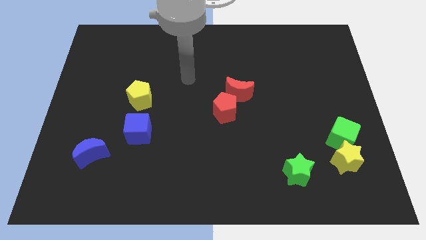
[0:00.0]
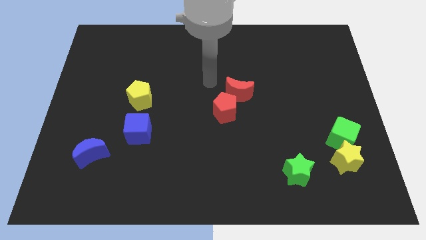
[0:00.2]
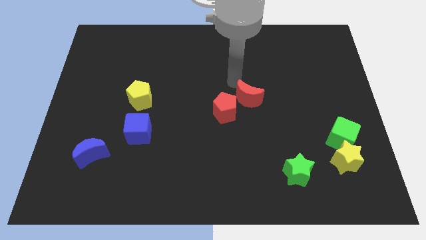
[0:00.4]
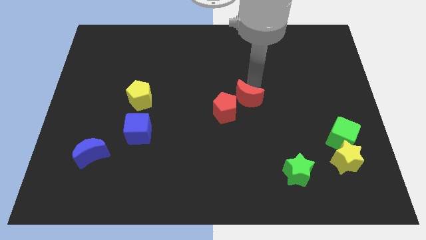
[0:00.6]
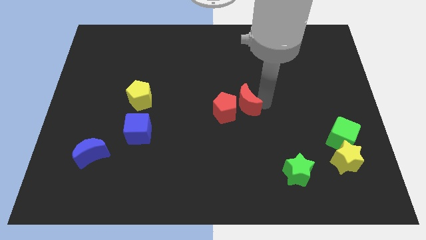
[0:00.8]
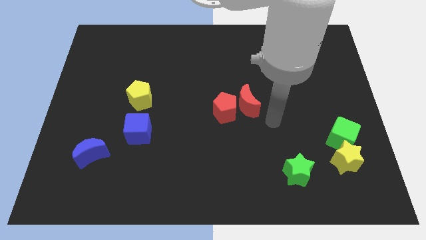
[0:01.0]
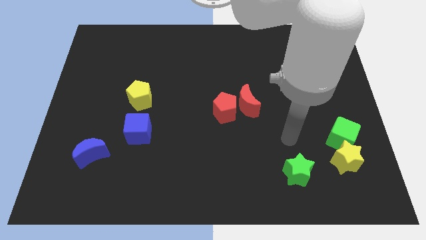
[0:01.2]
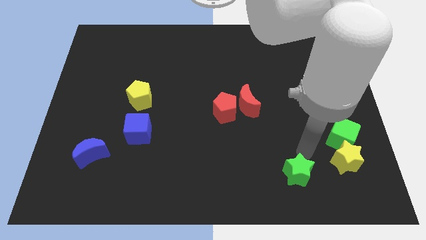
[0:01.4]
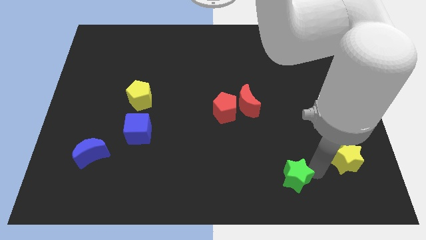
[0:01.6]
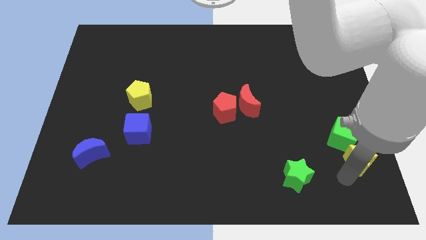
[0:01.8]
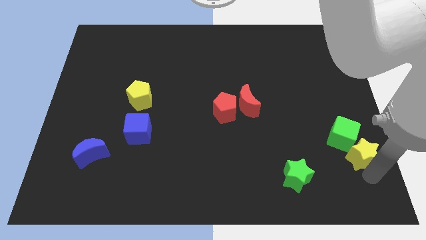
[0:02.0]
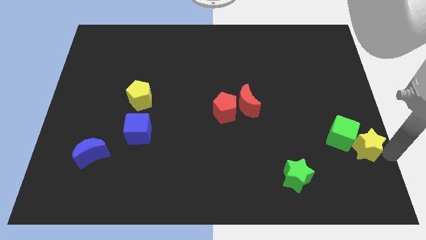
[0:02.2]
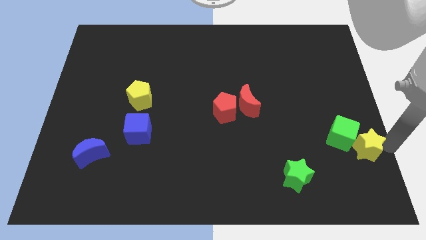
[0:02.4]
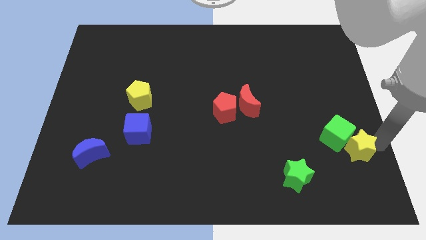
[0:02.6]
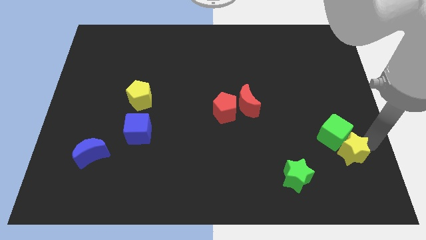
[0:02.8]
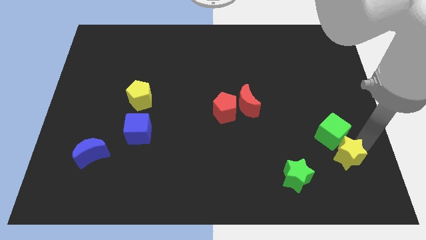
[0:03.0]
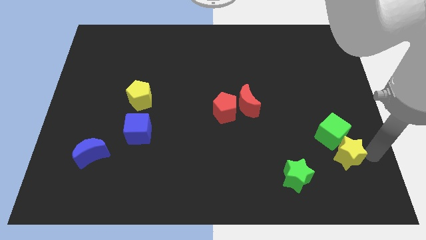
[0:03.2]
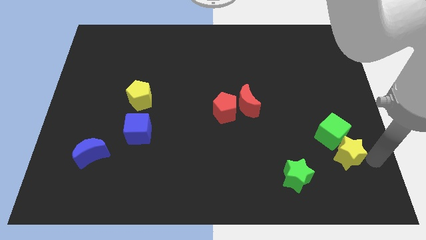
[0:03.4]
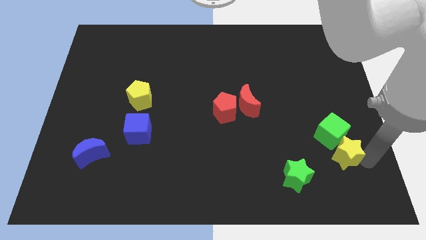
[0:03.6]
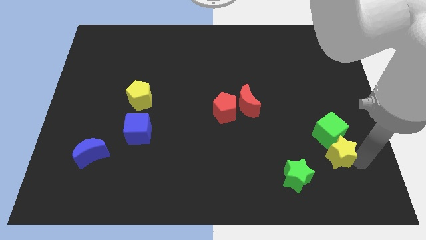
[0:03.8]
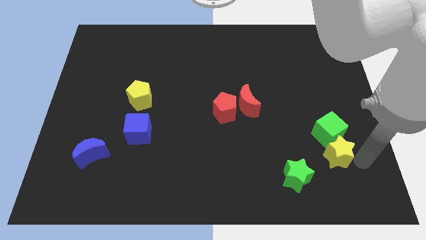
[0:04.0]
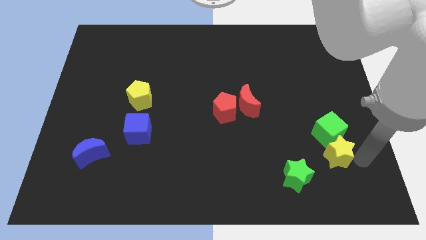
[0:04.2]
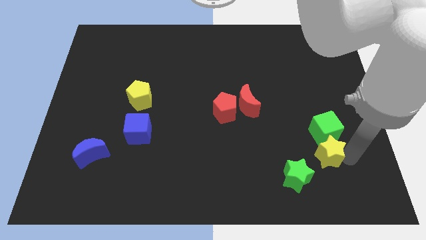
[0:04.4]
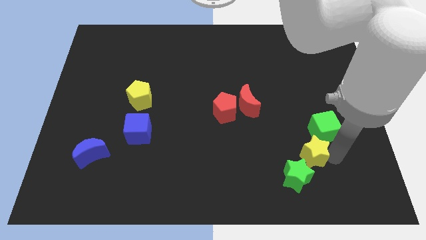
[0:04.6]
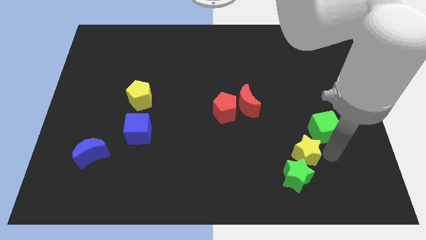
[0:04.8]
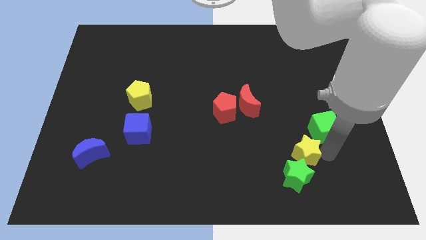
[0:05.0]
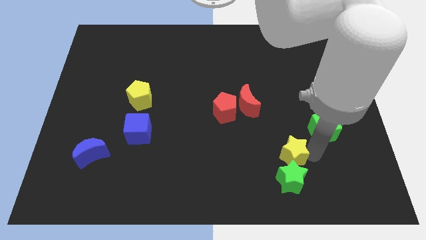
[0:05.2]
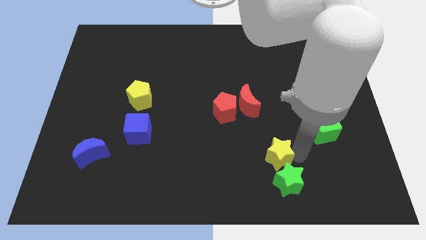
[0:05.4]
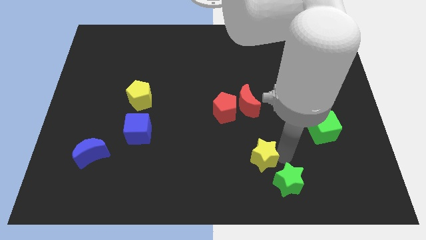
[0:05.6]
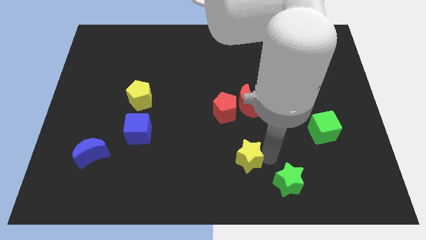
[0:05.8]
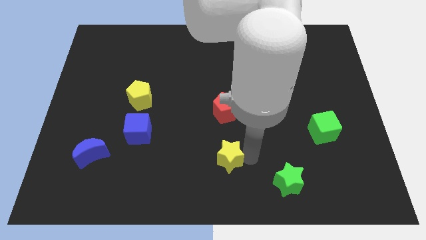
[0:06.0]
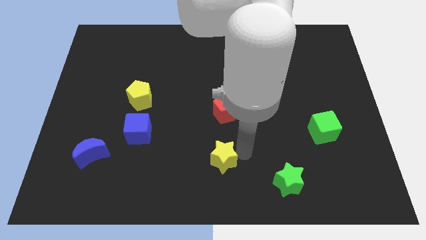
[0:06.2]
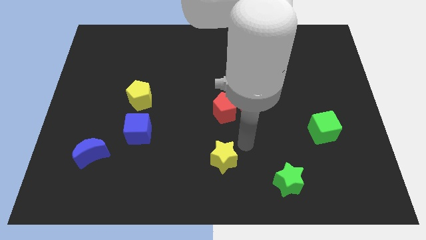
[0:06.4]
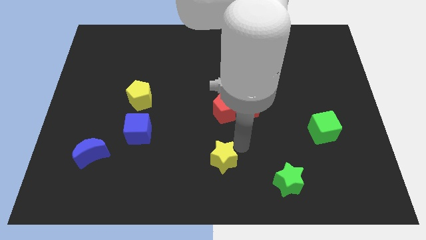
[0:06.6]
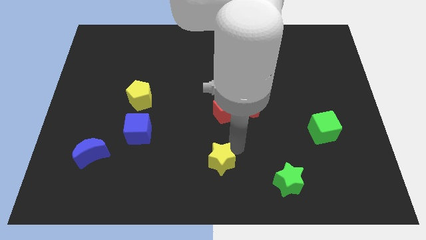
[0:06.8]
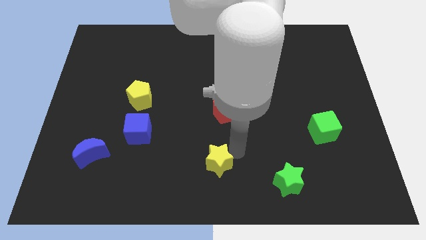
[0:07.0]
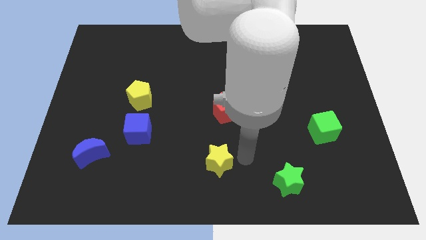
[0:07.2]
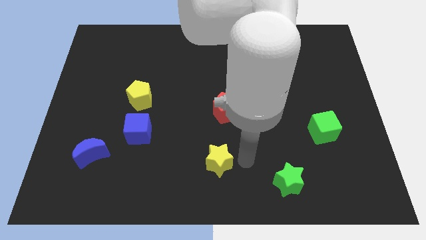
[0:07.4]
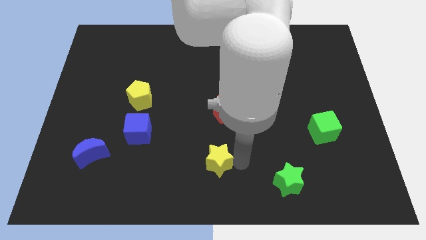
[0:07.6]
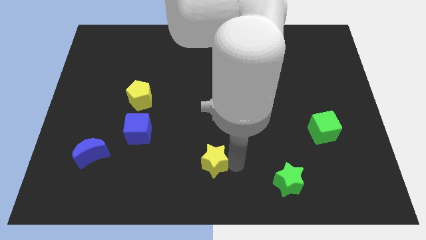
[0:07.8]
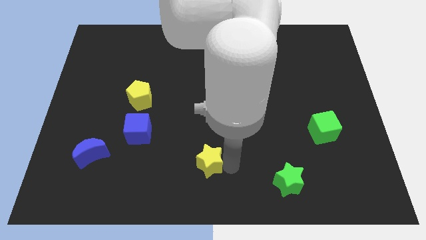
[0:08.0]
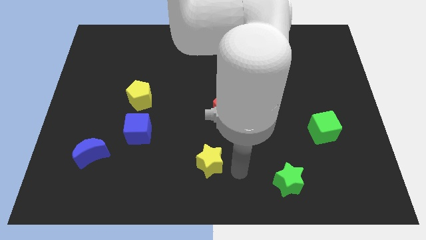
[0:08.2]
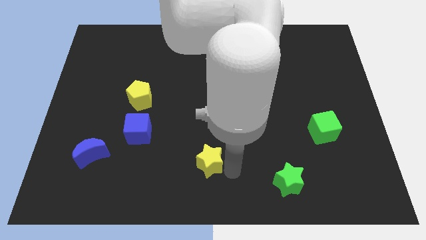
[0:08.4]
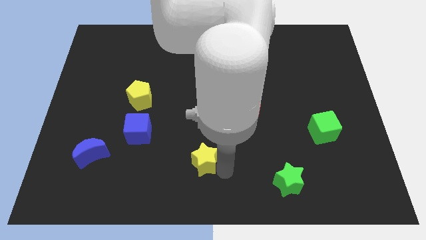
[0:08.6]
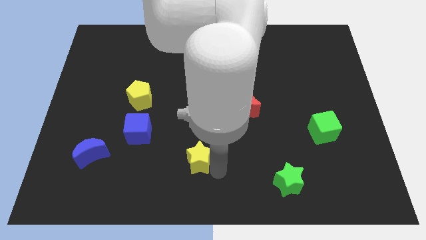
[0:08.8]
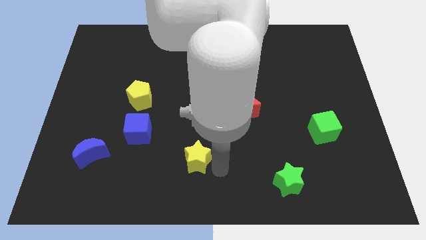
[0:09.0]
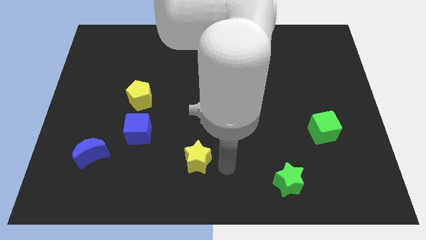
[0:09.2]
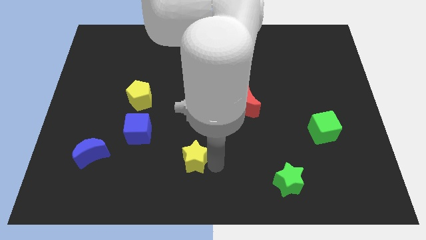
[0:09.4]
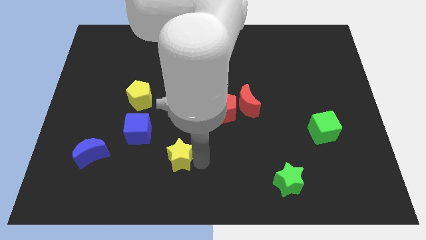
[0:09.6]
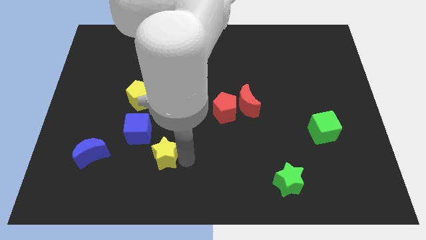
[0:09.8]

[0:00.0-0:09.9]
move the yellow star right of the blue moon

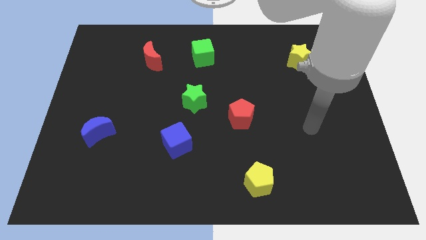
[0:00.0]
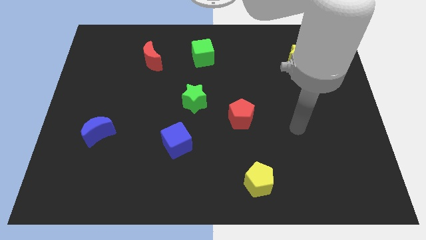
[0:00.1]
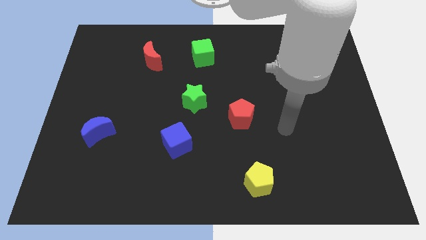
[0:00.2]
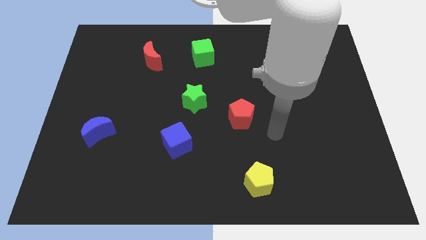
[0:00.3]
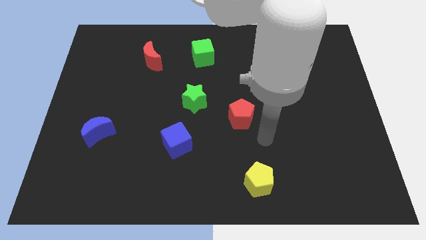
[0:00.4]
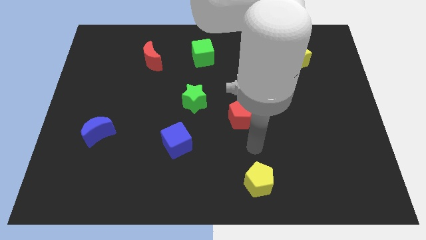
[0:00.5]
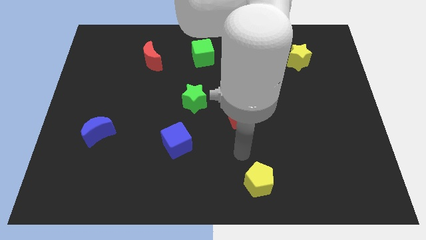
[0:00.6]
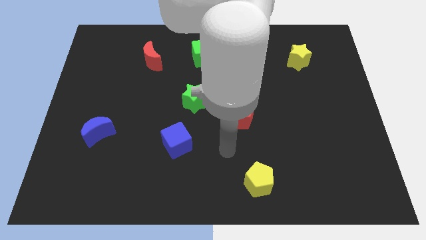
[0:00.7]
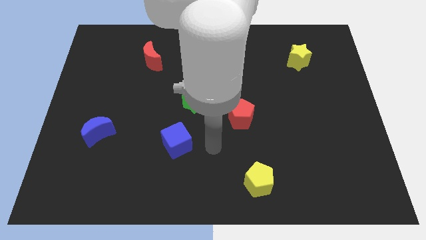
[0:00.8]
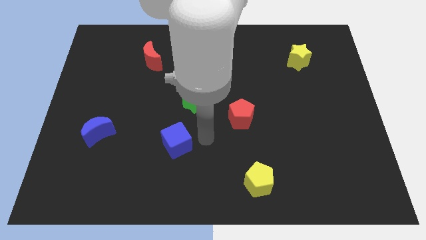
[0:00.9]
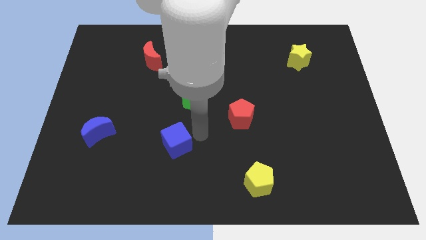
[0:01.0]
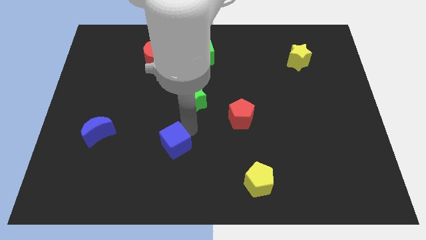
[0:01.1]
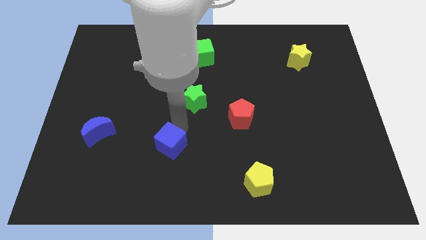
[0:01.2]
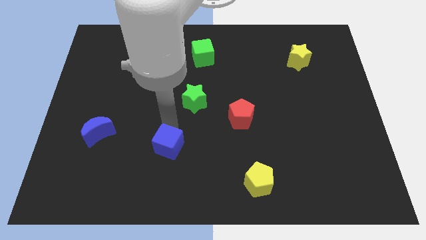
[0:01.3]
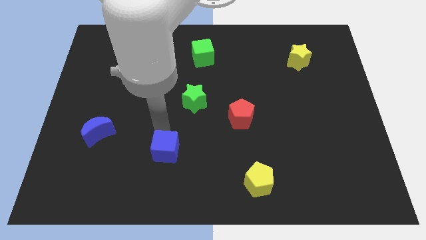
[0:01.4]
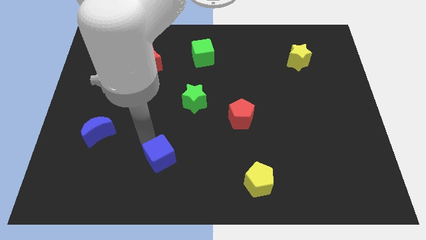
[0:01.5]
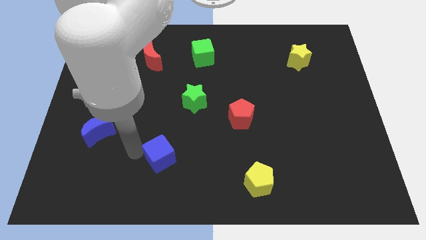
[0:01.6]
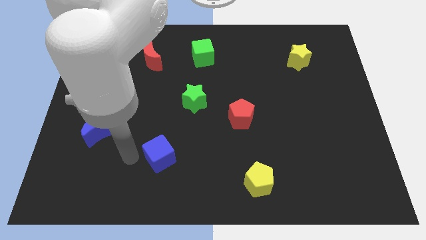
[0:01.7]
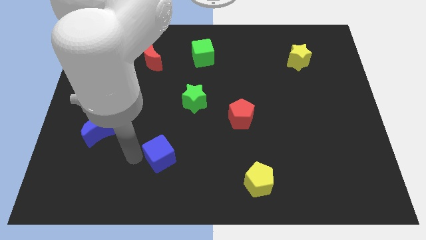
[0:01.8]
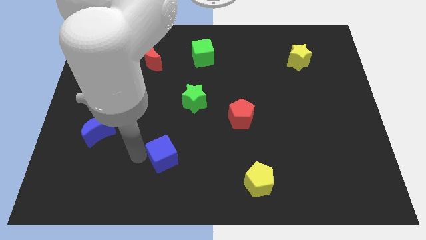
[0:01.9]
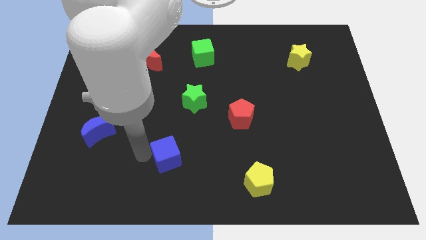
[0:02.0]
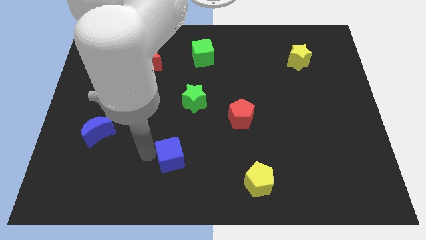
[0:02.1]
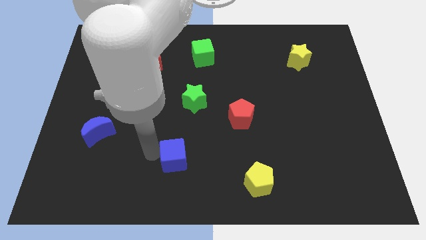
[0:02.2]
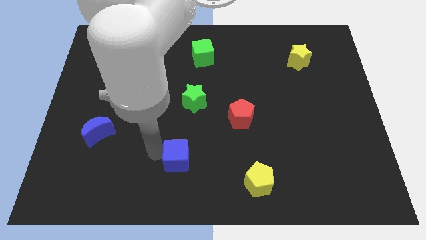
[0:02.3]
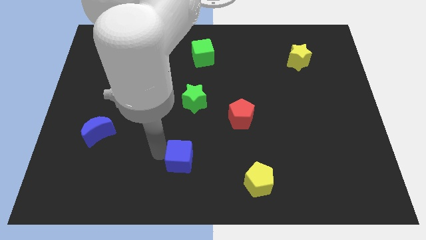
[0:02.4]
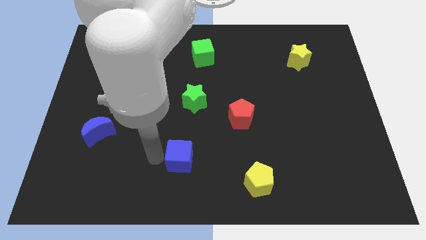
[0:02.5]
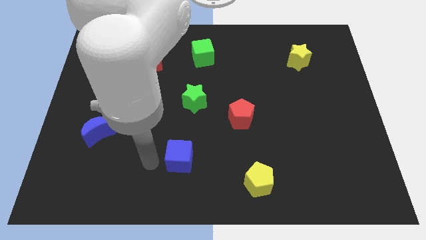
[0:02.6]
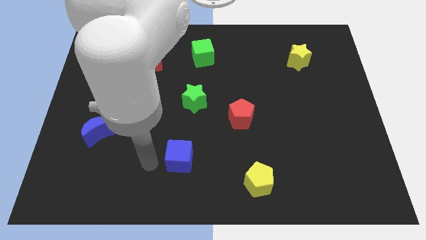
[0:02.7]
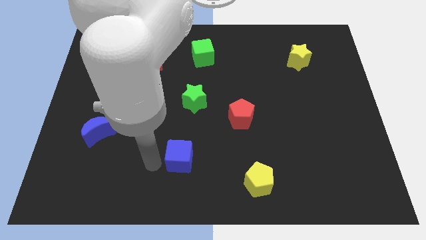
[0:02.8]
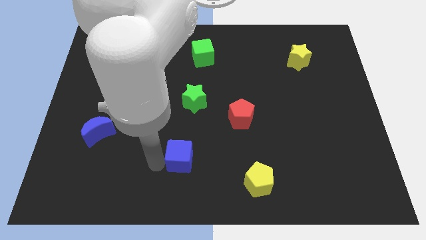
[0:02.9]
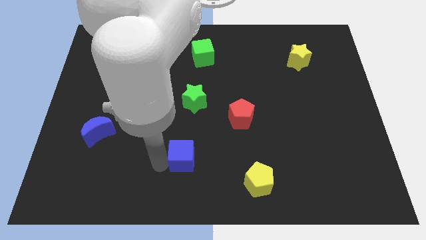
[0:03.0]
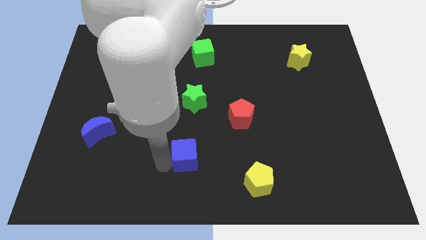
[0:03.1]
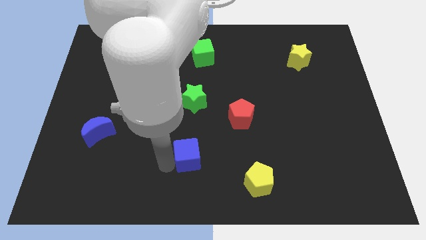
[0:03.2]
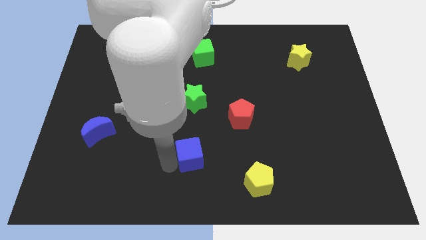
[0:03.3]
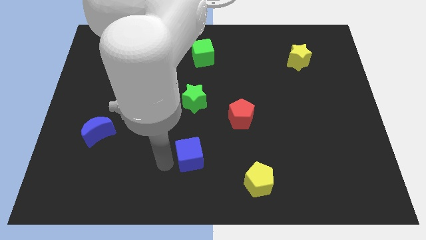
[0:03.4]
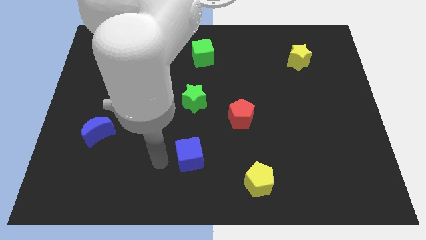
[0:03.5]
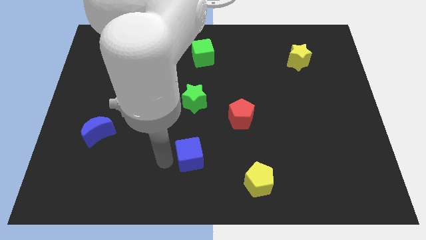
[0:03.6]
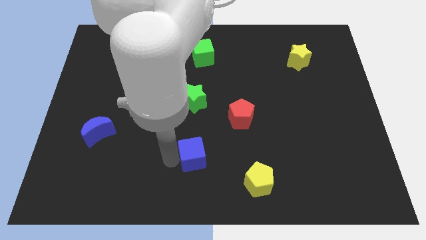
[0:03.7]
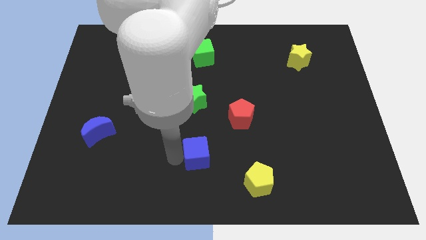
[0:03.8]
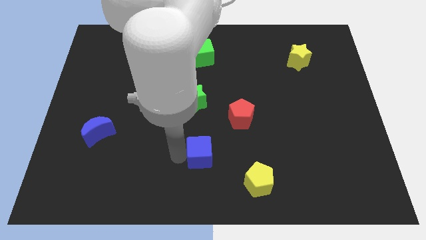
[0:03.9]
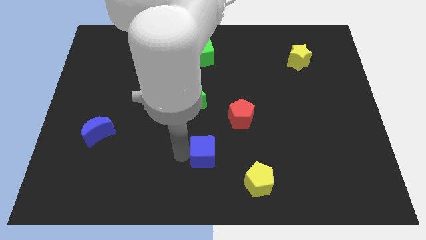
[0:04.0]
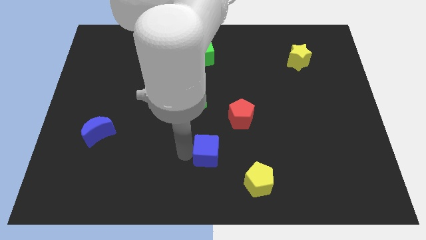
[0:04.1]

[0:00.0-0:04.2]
move the blue cube to the top left of the yellow pentagon
